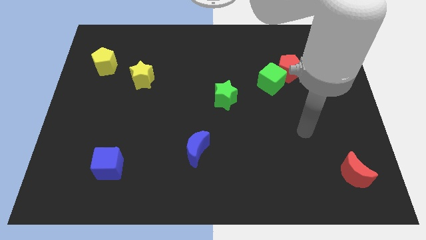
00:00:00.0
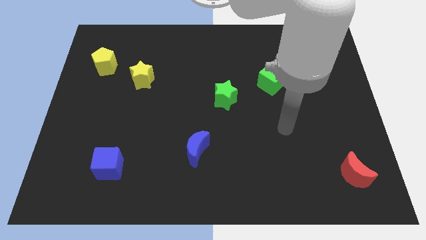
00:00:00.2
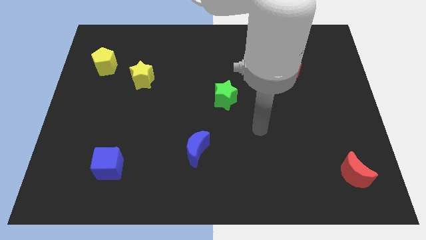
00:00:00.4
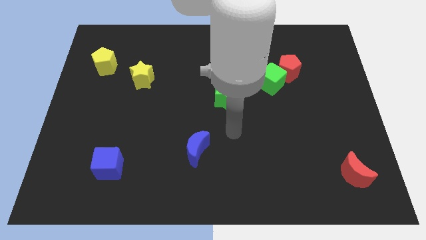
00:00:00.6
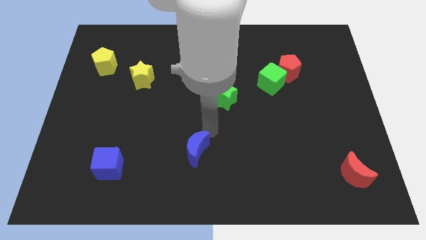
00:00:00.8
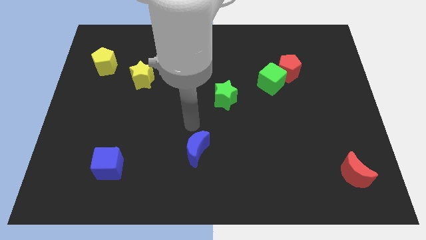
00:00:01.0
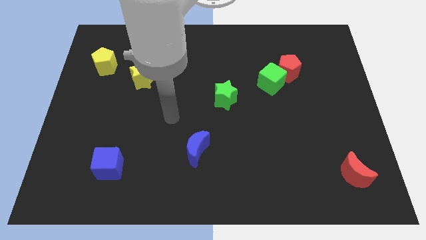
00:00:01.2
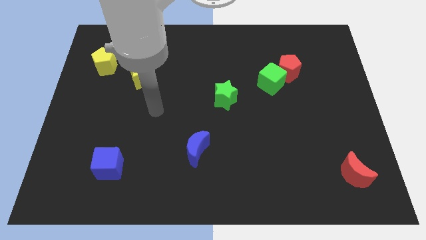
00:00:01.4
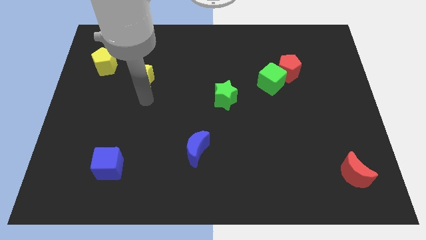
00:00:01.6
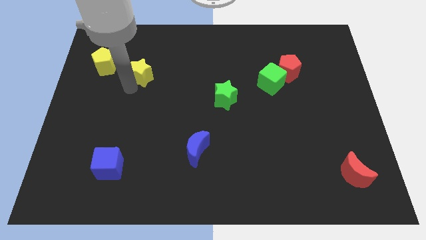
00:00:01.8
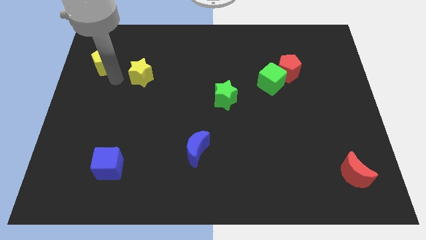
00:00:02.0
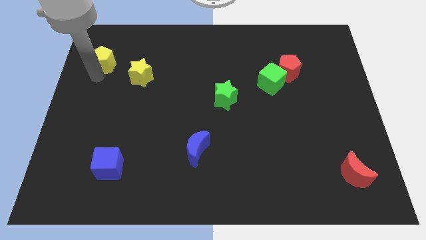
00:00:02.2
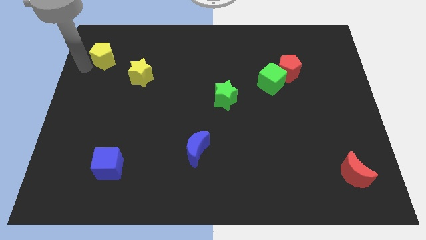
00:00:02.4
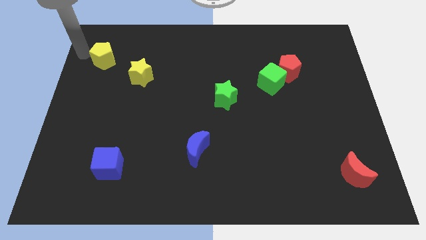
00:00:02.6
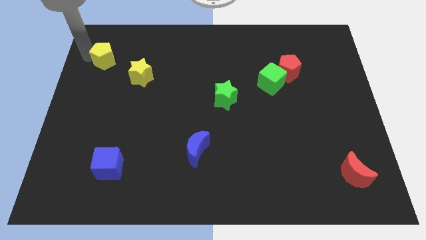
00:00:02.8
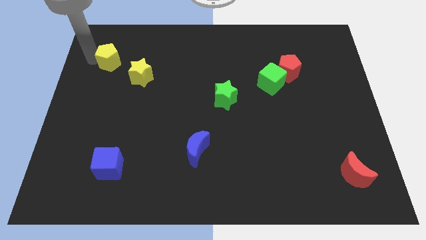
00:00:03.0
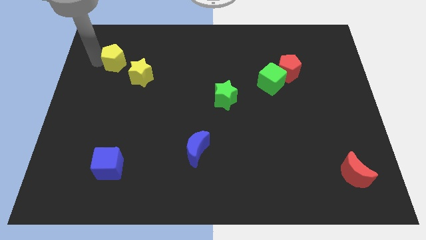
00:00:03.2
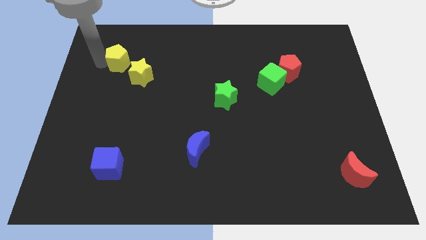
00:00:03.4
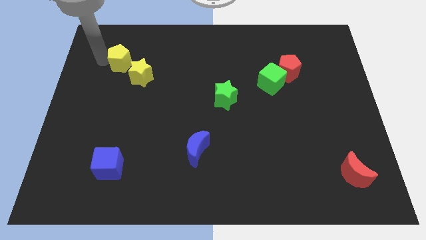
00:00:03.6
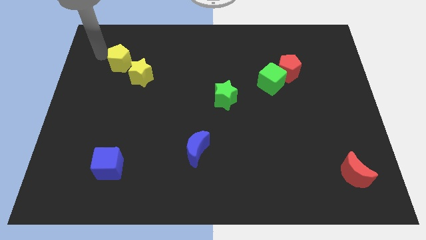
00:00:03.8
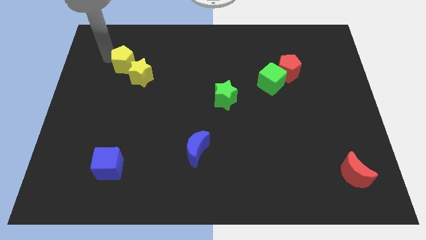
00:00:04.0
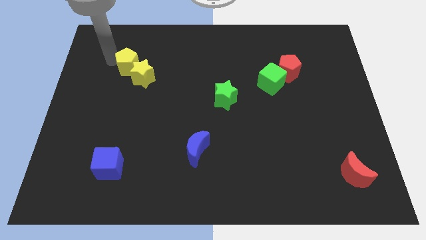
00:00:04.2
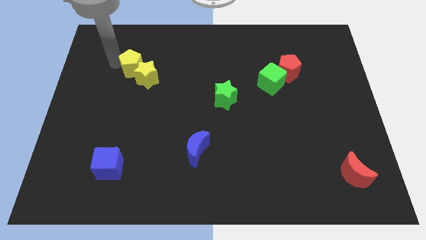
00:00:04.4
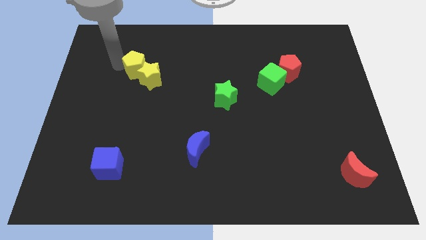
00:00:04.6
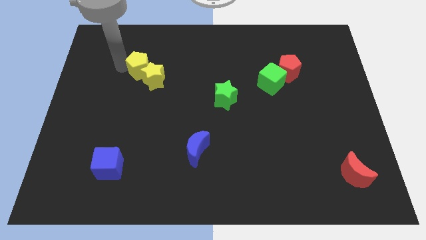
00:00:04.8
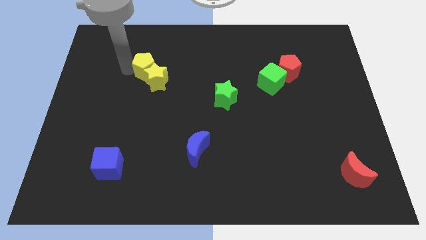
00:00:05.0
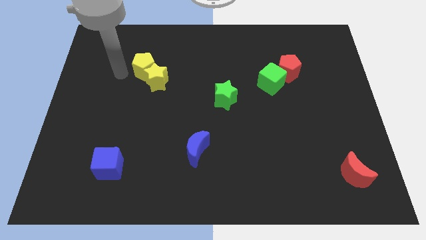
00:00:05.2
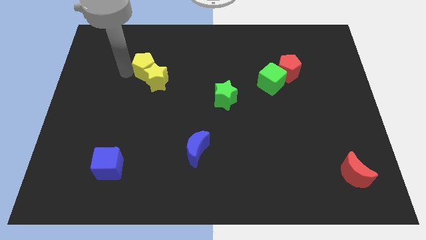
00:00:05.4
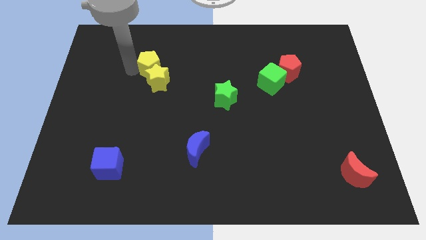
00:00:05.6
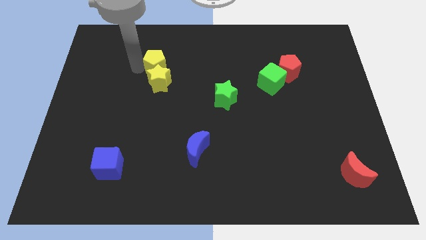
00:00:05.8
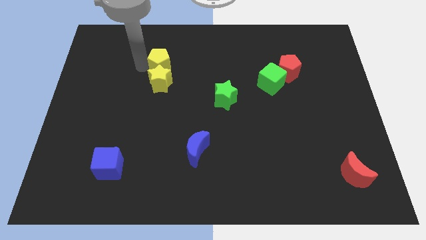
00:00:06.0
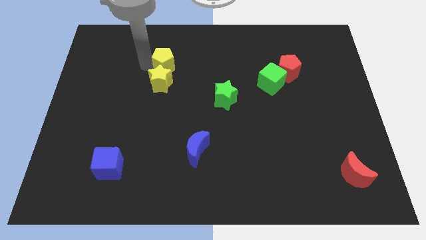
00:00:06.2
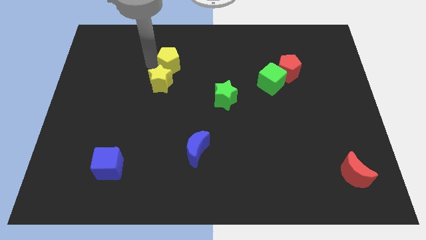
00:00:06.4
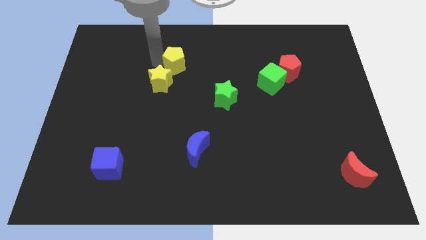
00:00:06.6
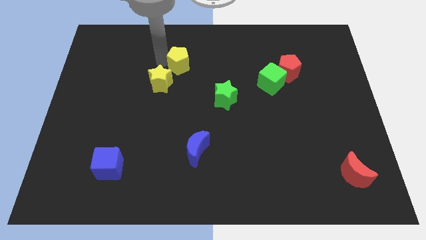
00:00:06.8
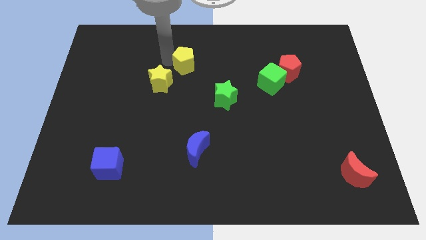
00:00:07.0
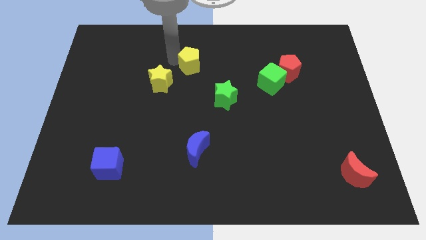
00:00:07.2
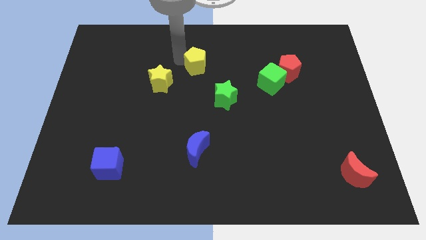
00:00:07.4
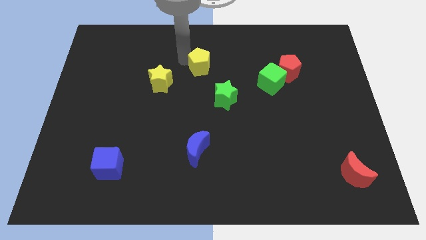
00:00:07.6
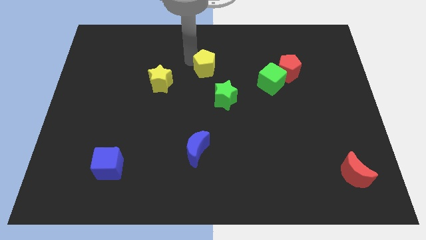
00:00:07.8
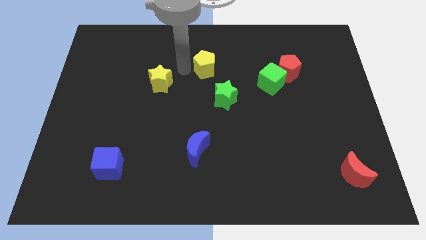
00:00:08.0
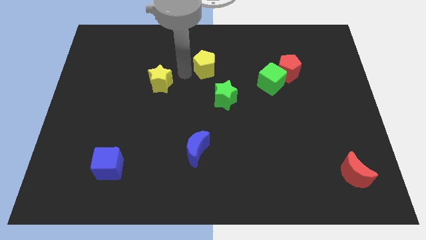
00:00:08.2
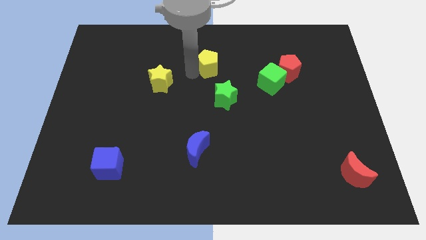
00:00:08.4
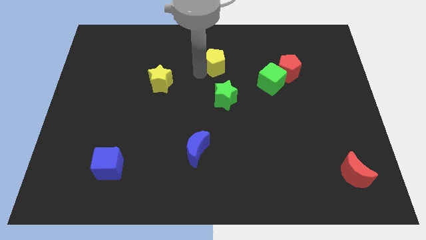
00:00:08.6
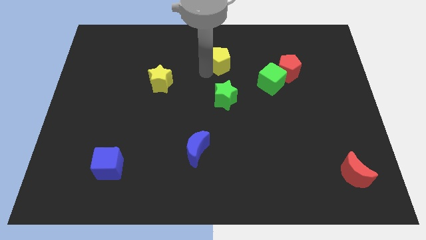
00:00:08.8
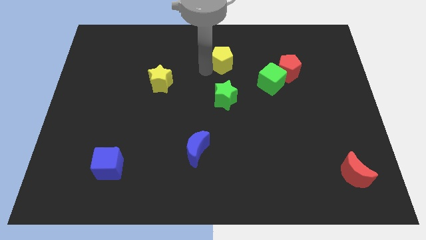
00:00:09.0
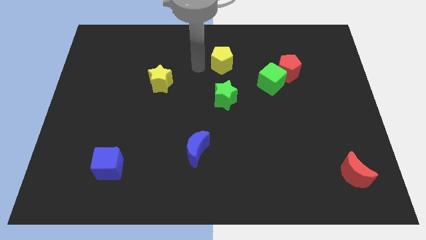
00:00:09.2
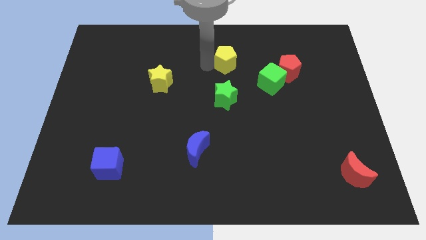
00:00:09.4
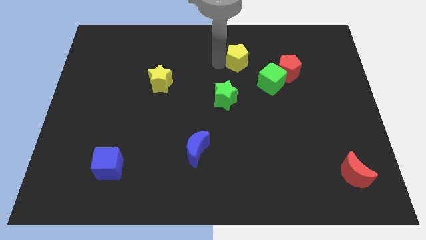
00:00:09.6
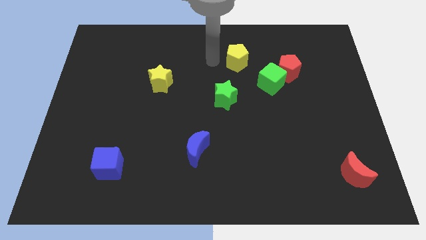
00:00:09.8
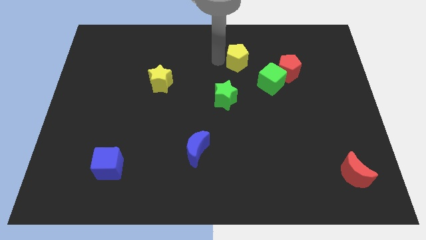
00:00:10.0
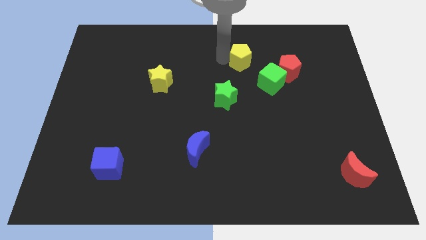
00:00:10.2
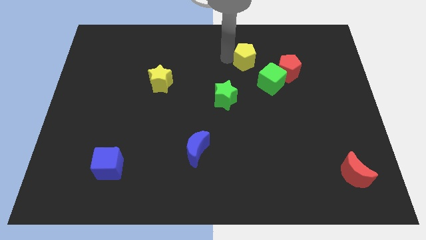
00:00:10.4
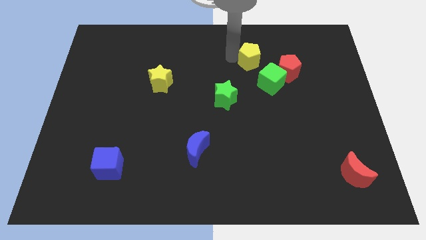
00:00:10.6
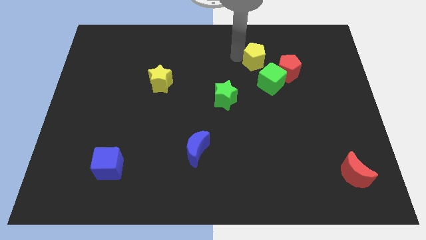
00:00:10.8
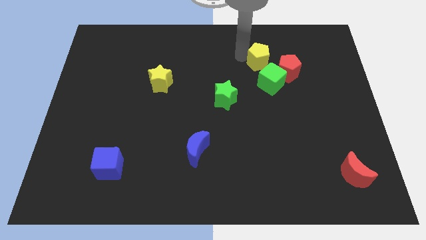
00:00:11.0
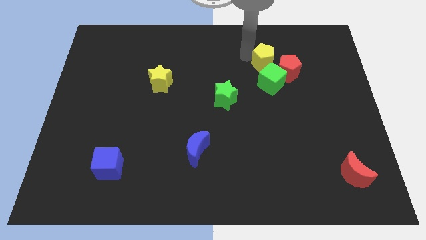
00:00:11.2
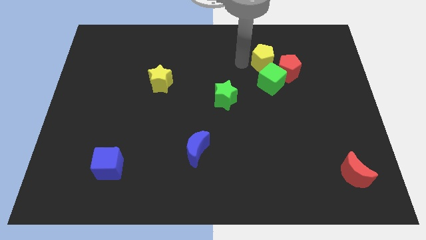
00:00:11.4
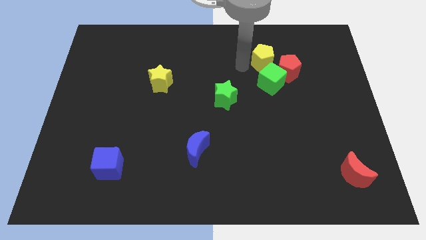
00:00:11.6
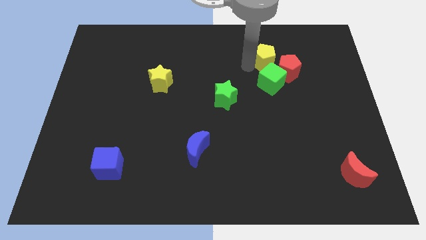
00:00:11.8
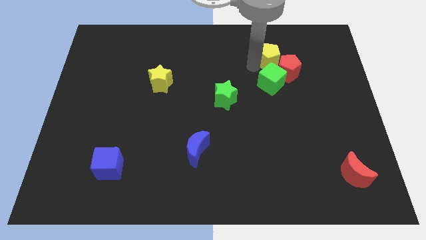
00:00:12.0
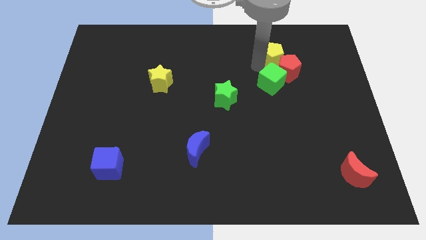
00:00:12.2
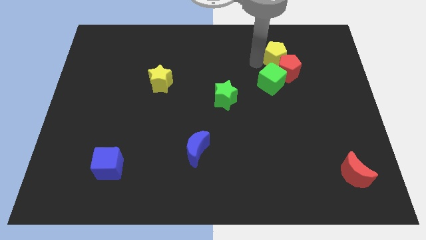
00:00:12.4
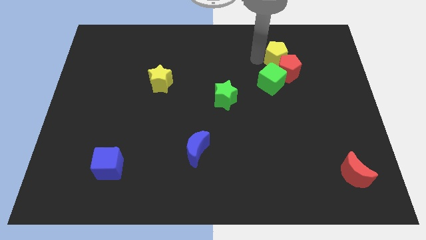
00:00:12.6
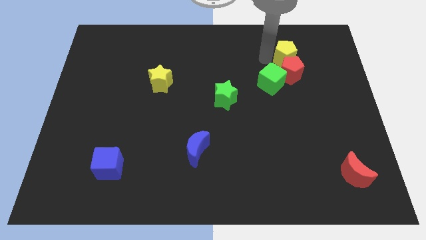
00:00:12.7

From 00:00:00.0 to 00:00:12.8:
put the yellow pentagon diagonally up and to the right of the red pentagon

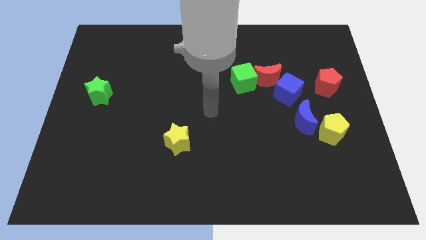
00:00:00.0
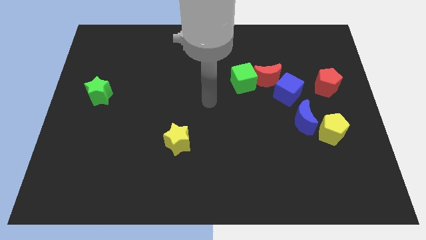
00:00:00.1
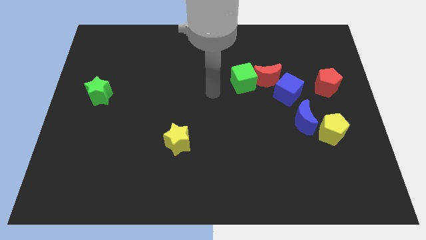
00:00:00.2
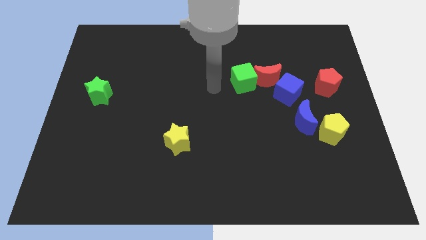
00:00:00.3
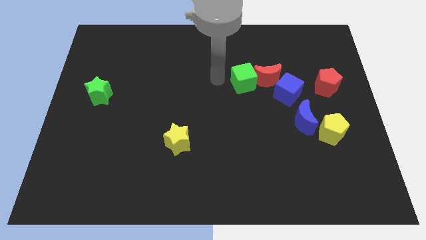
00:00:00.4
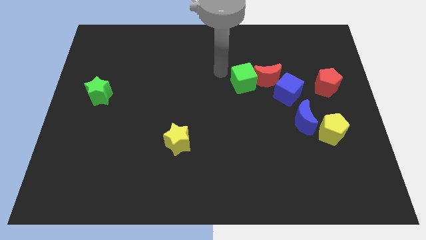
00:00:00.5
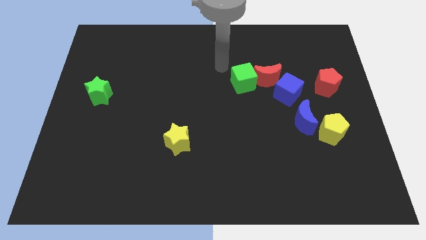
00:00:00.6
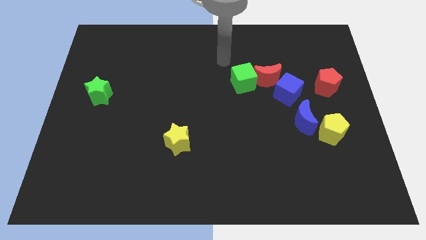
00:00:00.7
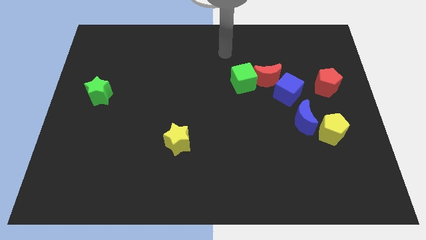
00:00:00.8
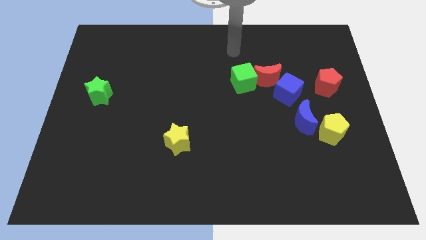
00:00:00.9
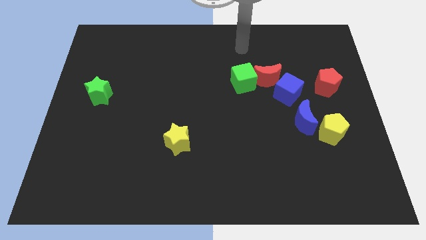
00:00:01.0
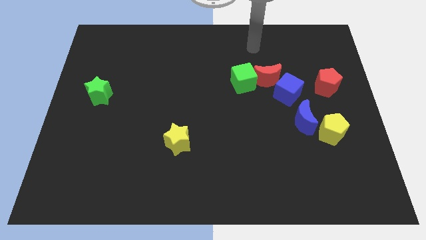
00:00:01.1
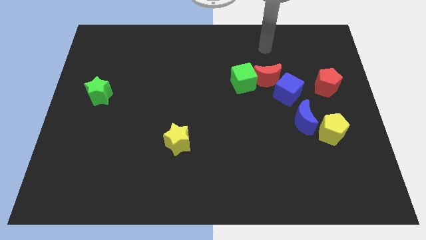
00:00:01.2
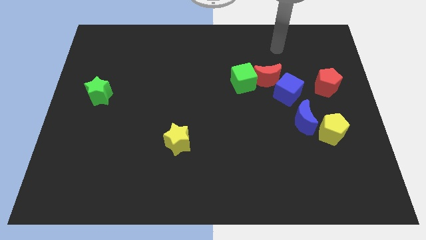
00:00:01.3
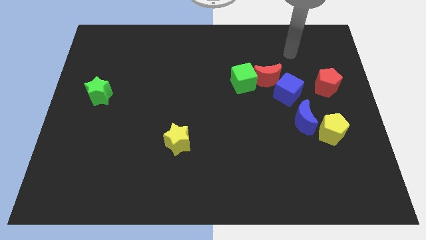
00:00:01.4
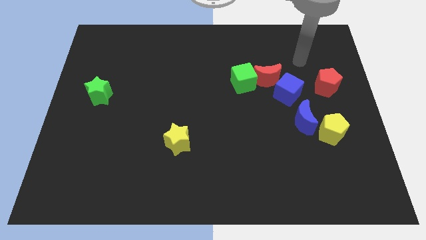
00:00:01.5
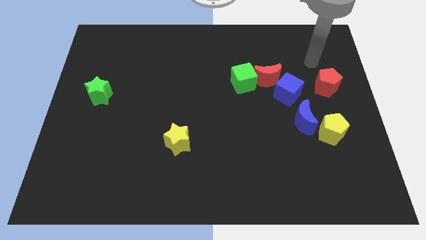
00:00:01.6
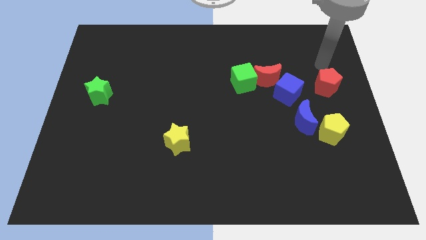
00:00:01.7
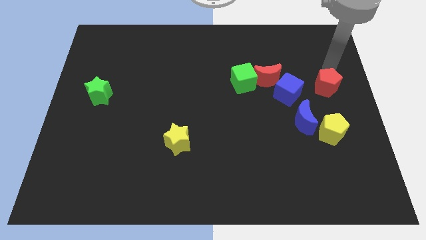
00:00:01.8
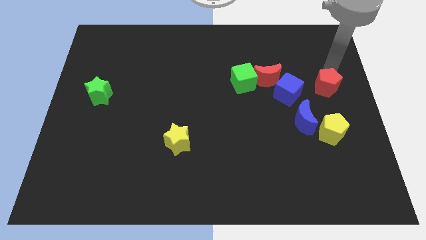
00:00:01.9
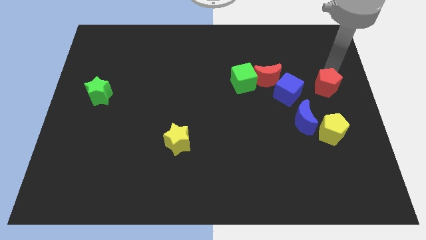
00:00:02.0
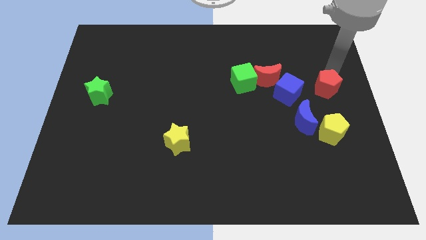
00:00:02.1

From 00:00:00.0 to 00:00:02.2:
put the red pentagon to the top right of the blue moon
